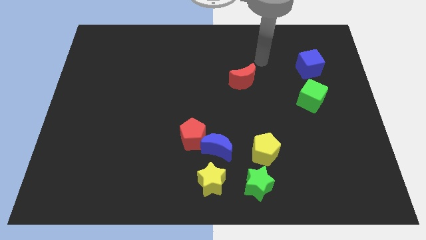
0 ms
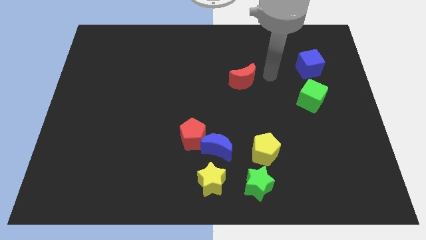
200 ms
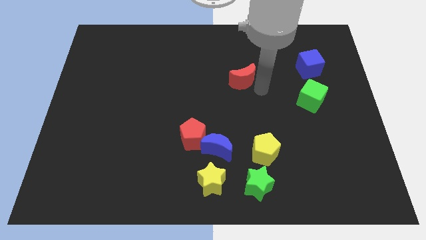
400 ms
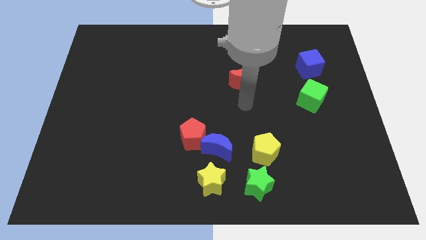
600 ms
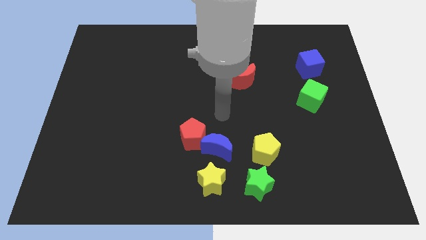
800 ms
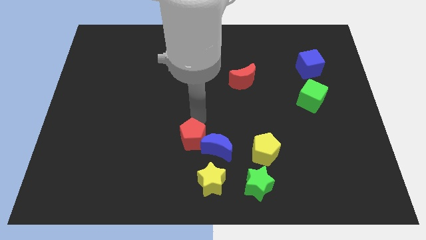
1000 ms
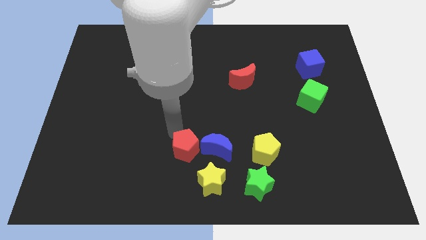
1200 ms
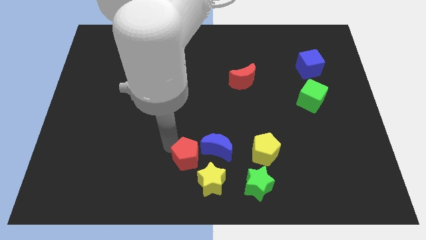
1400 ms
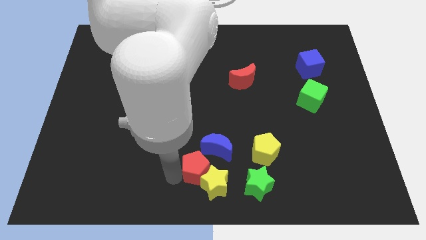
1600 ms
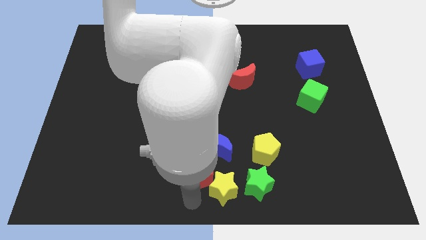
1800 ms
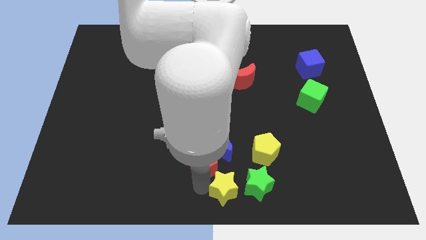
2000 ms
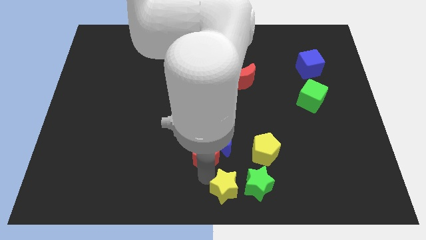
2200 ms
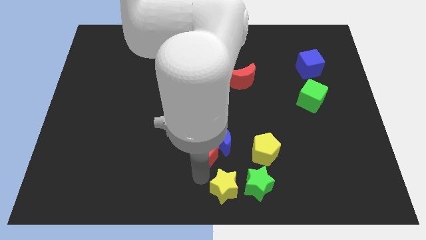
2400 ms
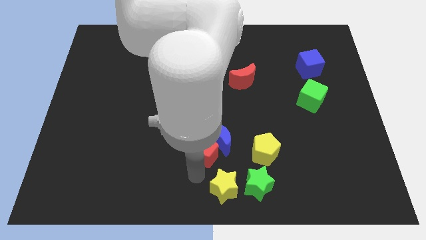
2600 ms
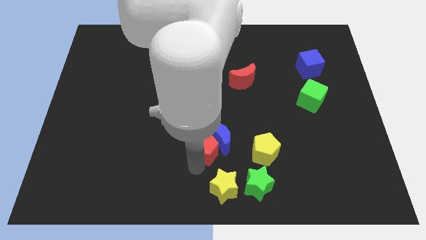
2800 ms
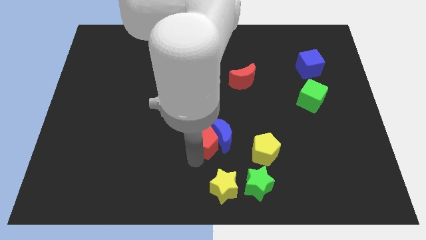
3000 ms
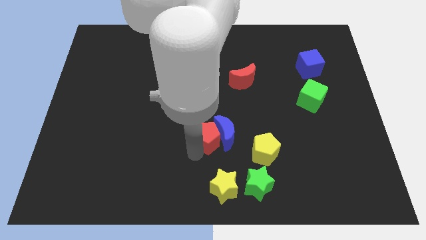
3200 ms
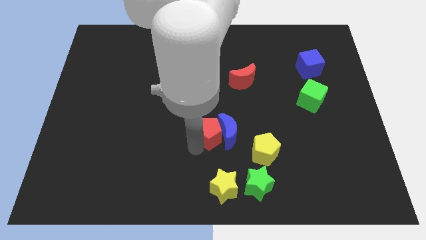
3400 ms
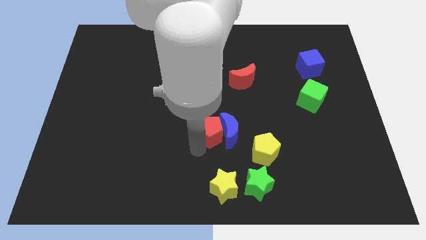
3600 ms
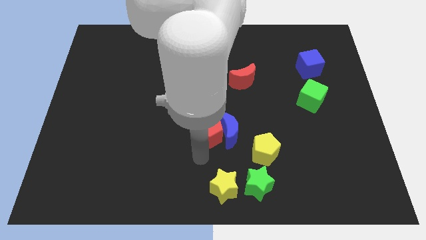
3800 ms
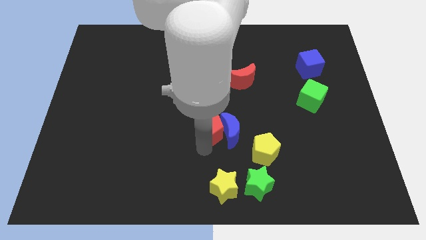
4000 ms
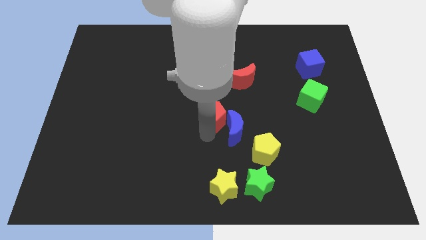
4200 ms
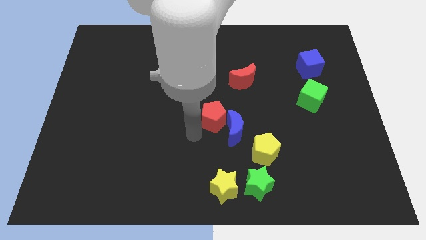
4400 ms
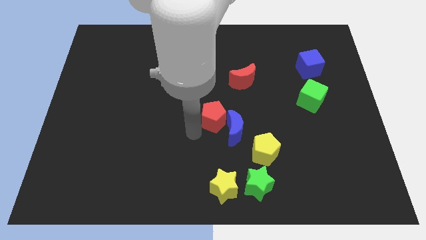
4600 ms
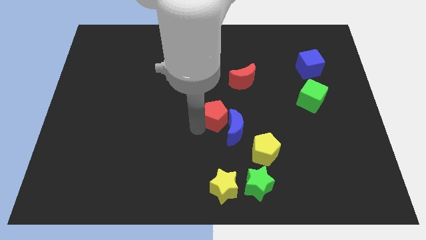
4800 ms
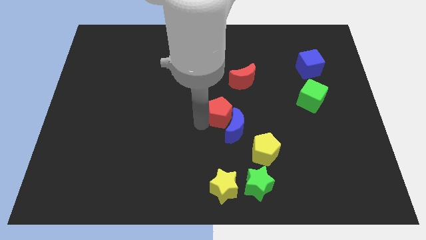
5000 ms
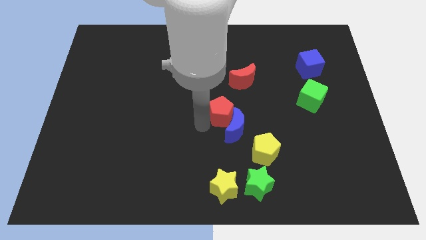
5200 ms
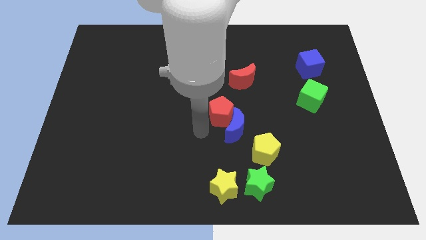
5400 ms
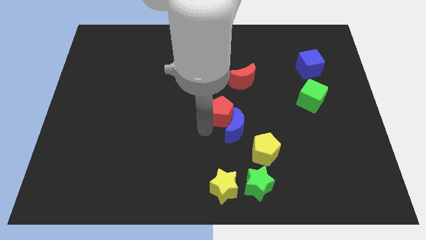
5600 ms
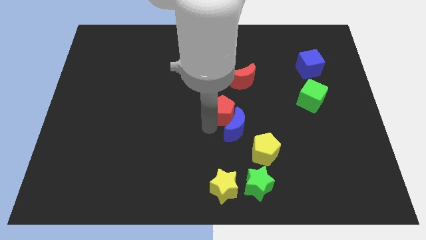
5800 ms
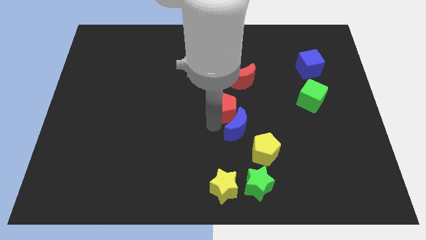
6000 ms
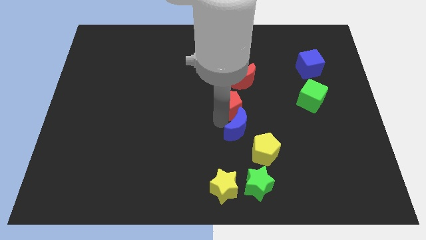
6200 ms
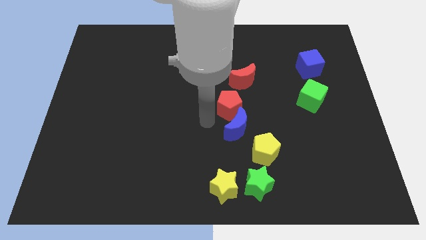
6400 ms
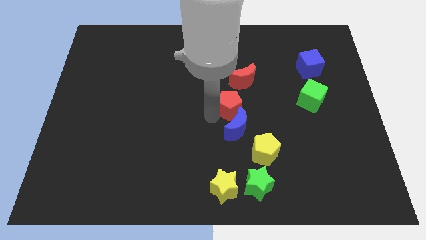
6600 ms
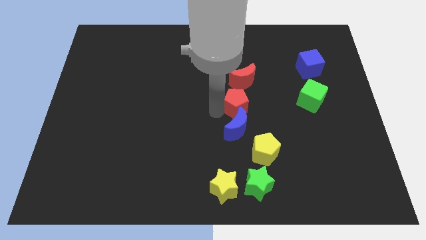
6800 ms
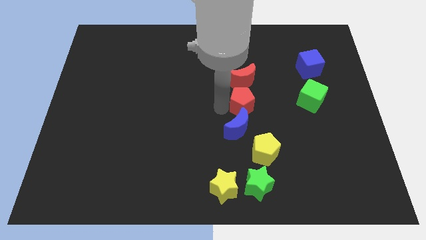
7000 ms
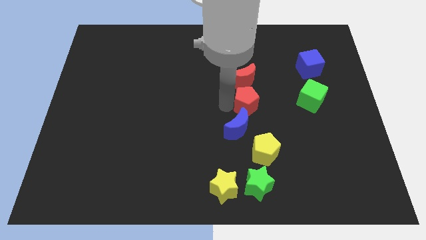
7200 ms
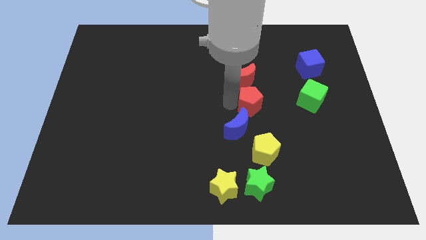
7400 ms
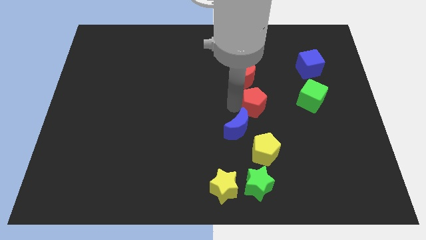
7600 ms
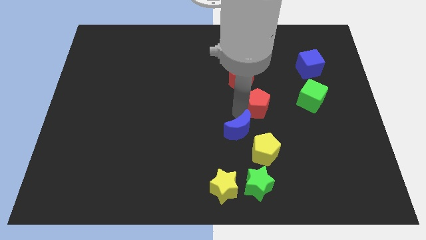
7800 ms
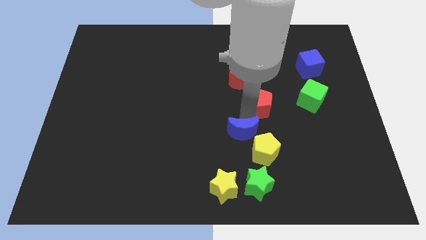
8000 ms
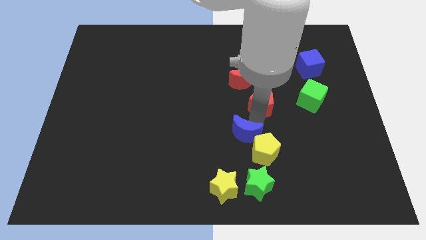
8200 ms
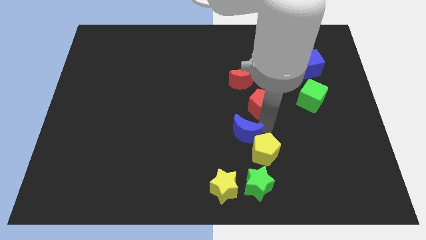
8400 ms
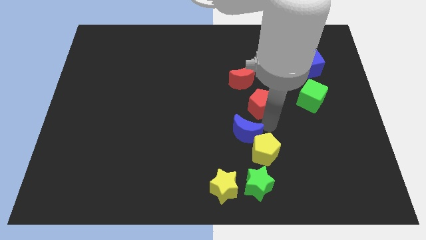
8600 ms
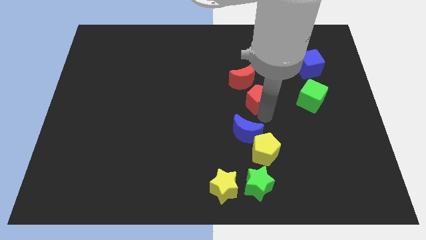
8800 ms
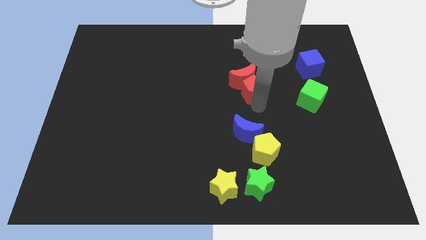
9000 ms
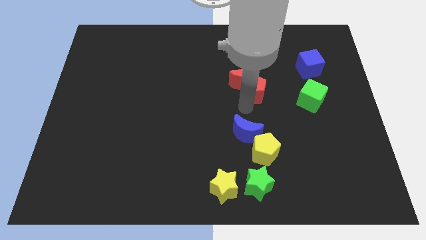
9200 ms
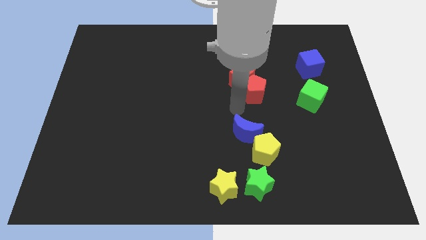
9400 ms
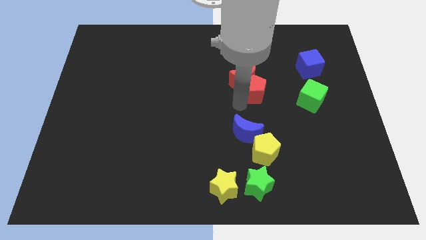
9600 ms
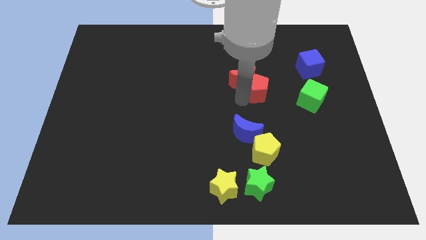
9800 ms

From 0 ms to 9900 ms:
move the red pentagon up and right diagonally

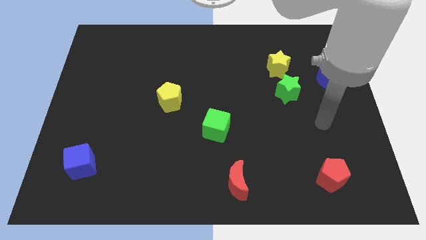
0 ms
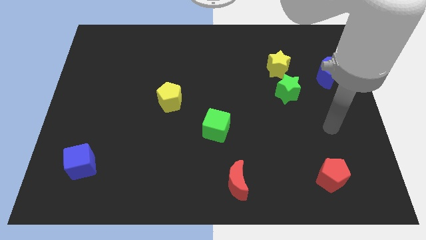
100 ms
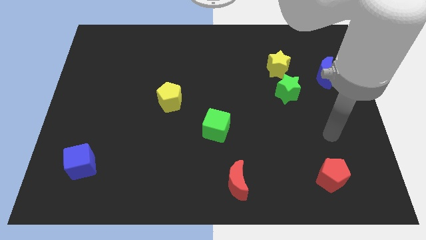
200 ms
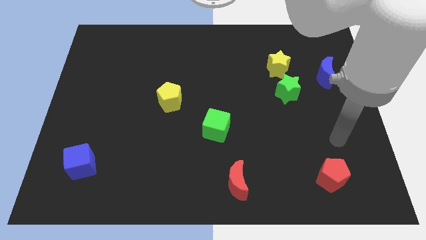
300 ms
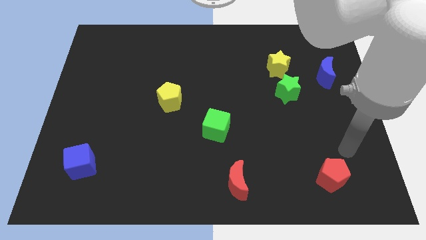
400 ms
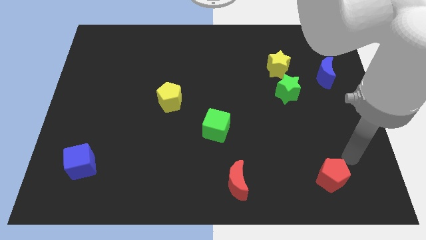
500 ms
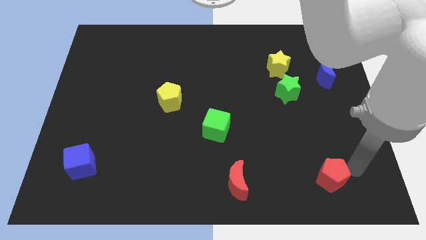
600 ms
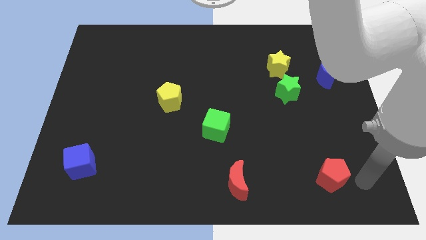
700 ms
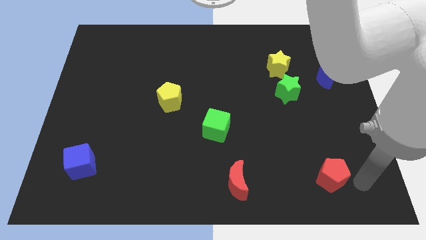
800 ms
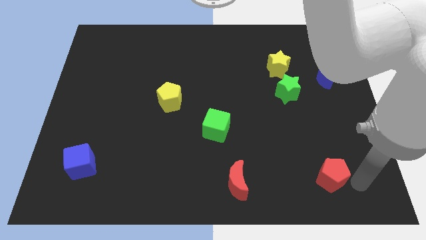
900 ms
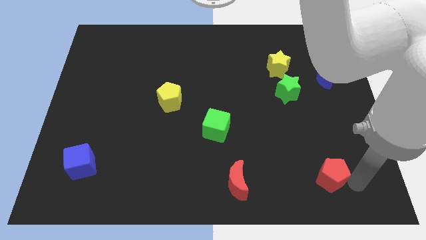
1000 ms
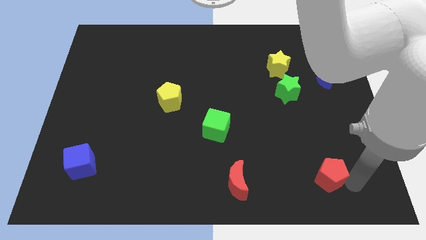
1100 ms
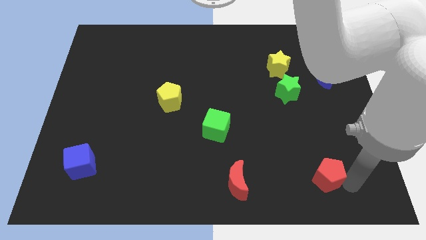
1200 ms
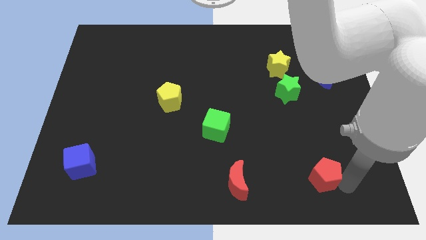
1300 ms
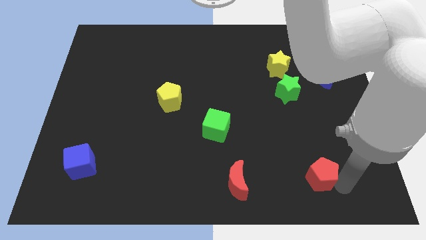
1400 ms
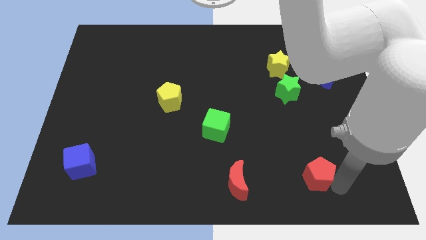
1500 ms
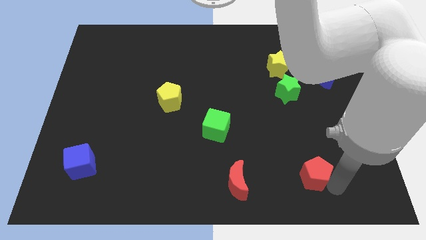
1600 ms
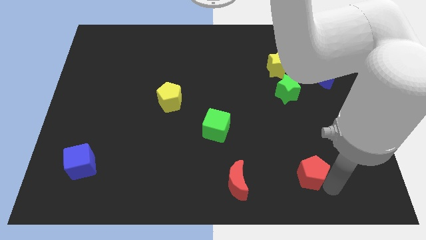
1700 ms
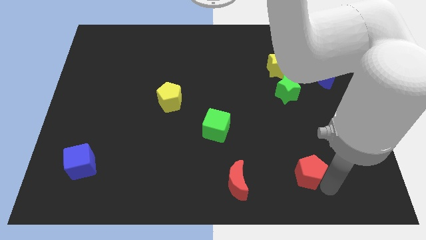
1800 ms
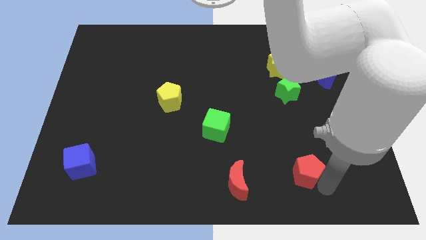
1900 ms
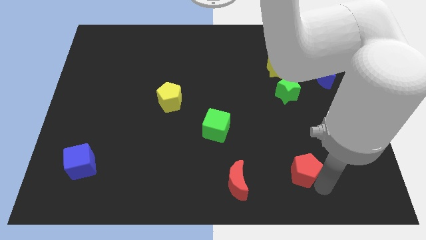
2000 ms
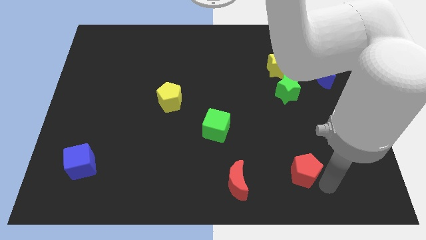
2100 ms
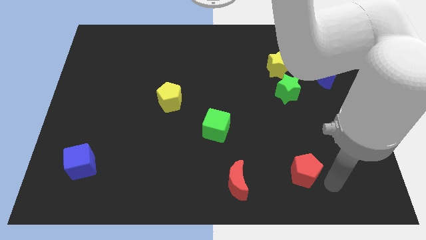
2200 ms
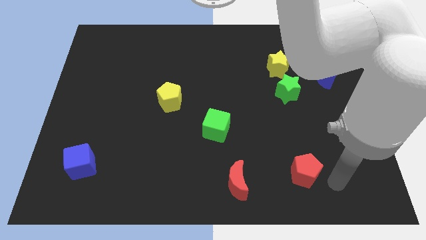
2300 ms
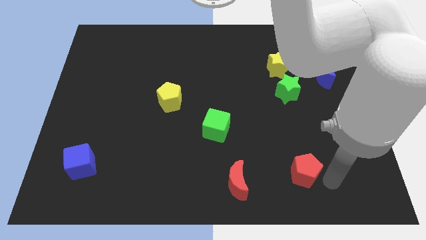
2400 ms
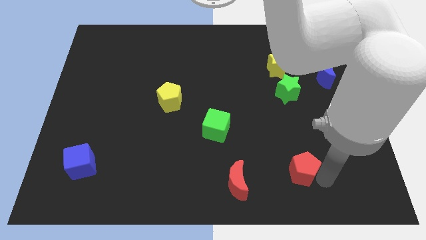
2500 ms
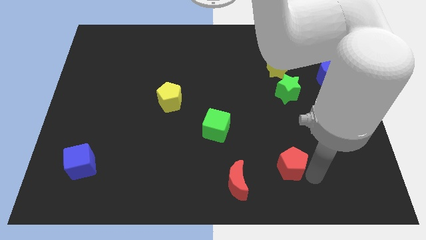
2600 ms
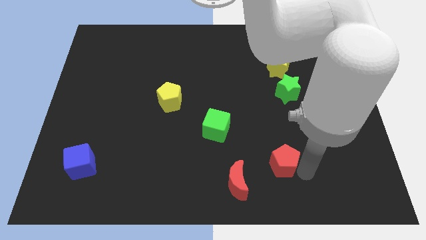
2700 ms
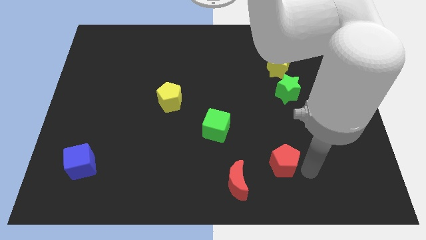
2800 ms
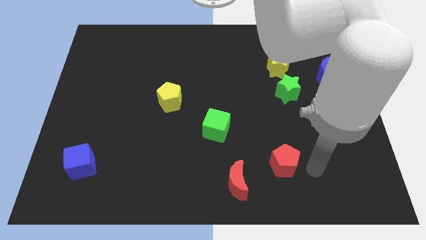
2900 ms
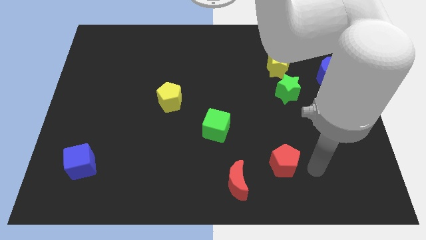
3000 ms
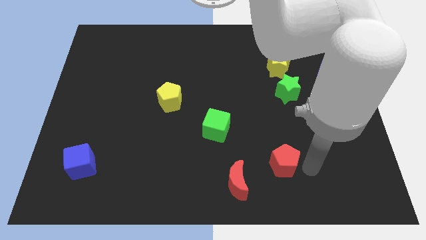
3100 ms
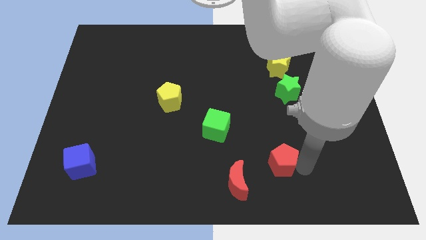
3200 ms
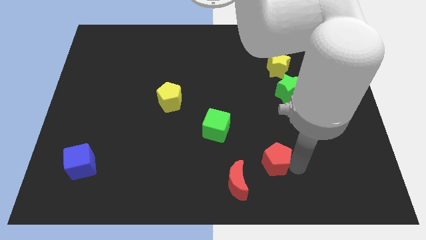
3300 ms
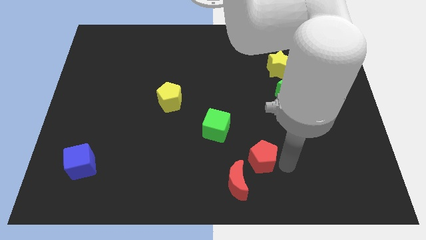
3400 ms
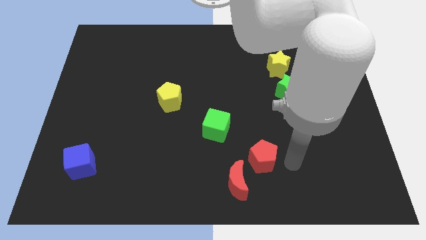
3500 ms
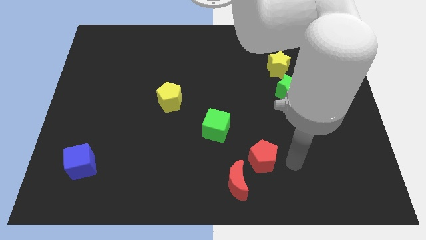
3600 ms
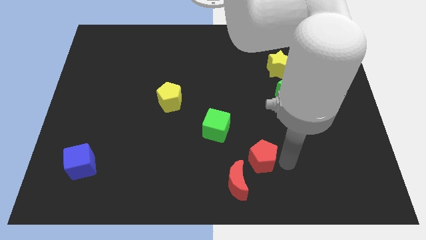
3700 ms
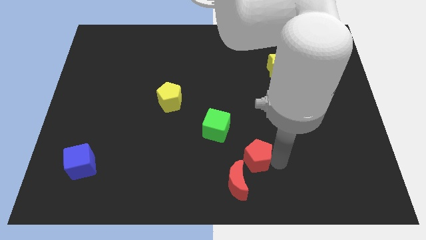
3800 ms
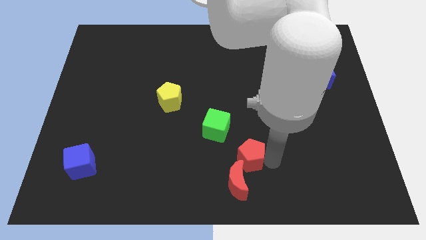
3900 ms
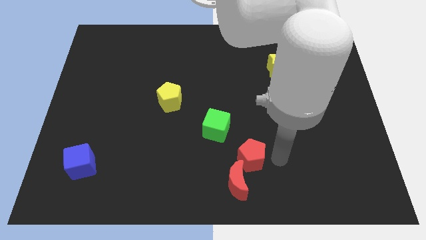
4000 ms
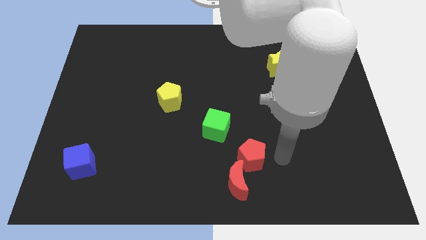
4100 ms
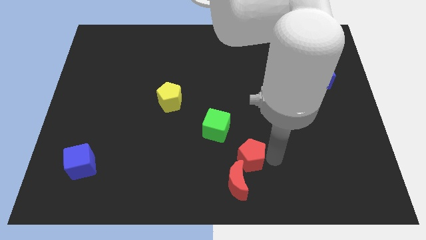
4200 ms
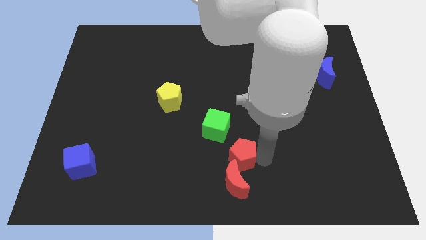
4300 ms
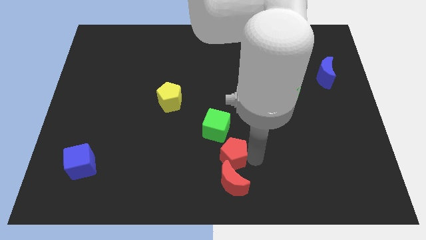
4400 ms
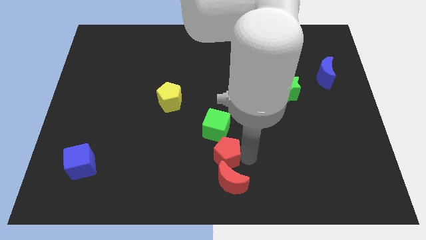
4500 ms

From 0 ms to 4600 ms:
push the red pentagon left
